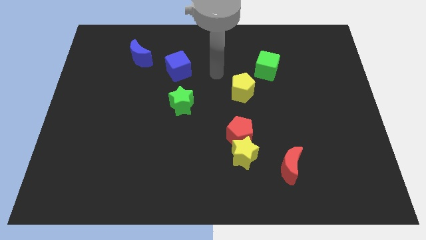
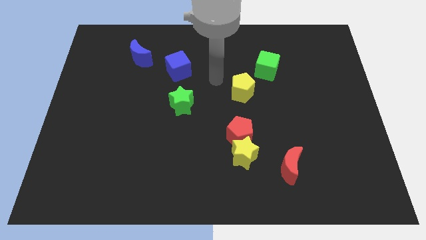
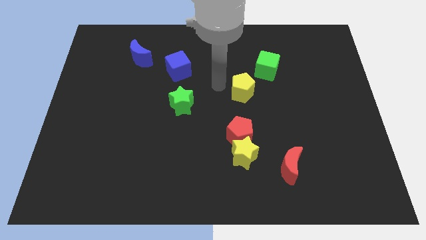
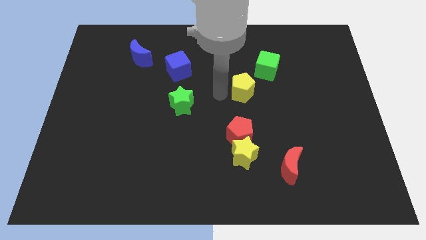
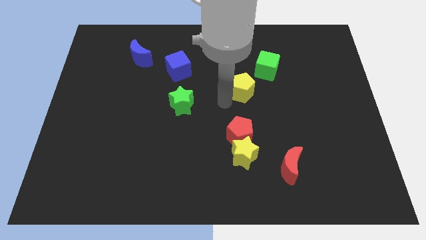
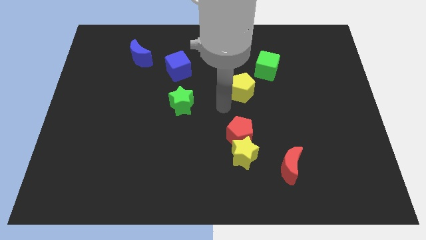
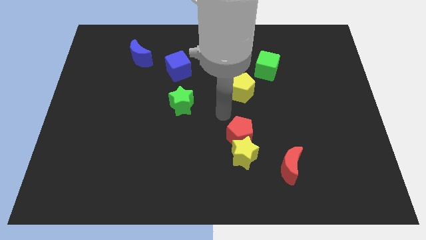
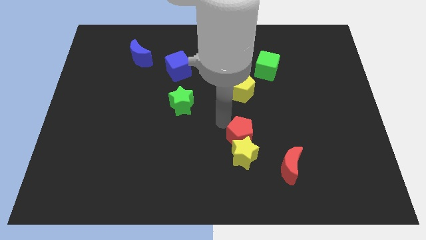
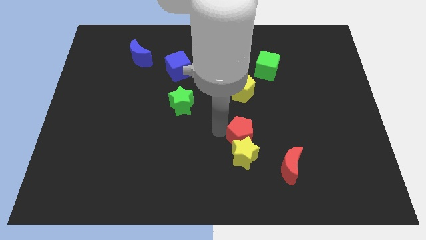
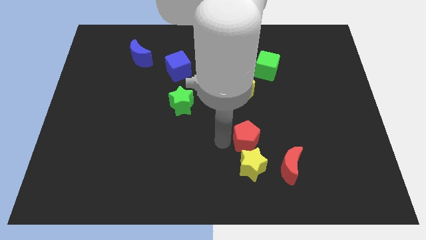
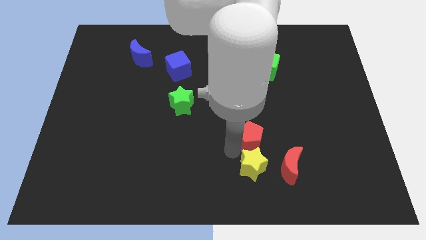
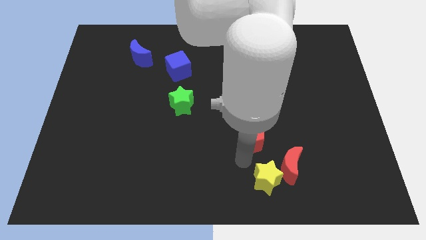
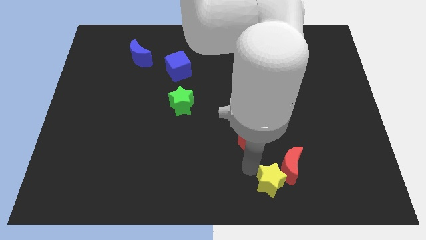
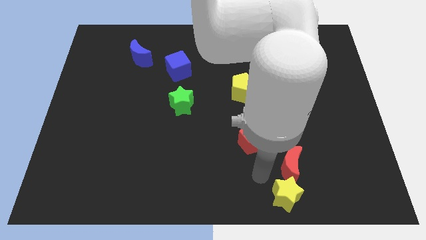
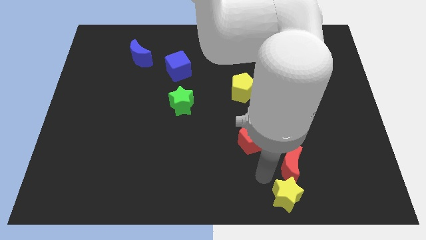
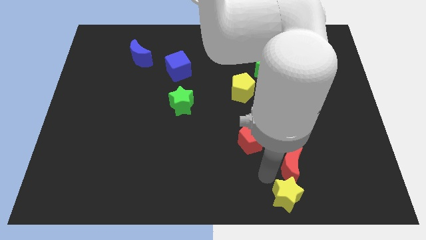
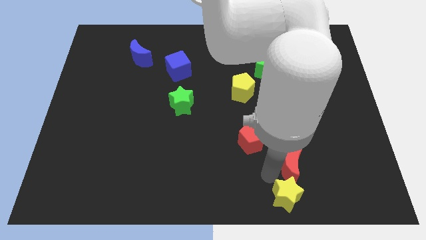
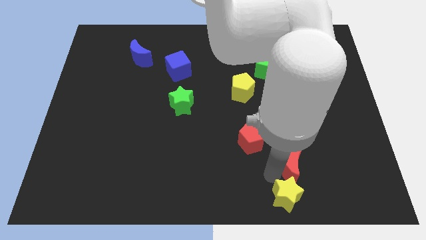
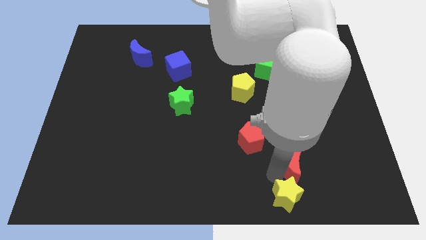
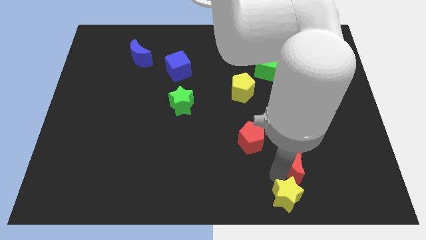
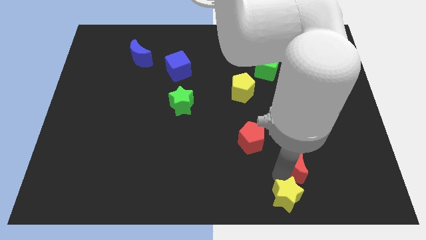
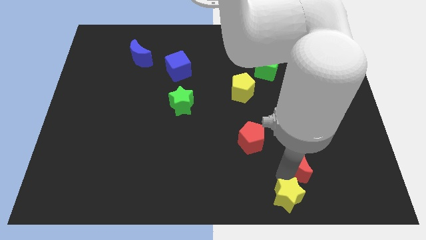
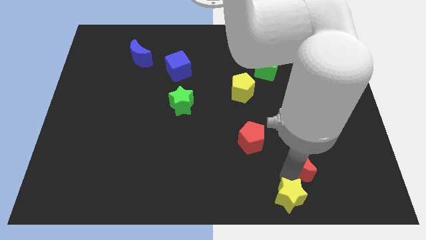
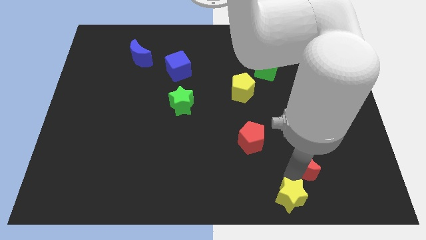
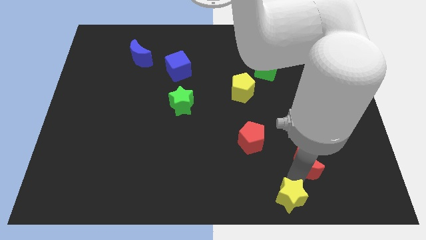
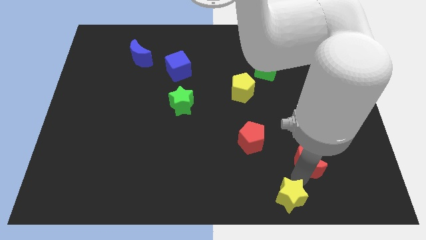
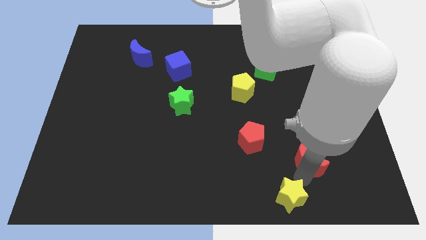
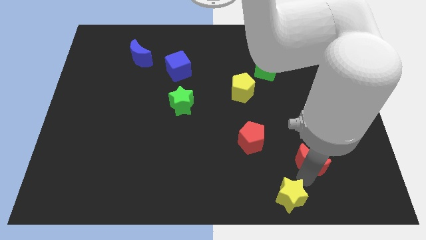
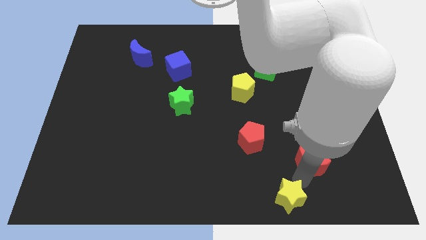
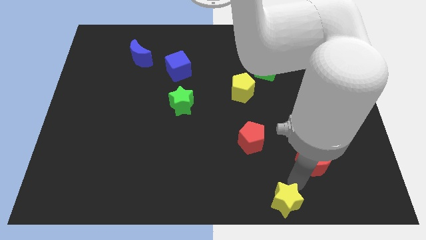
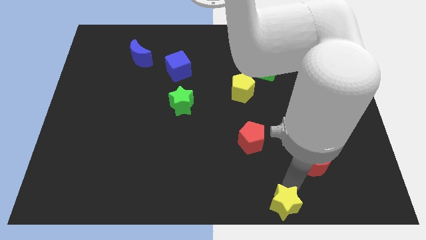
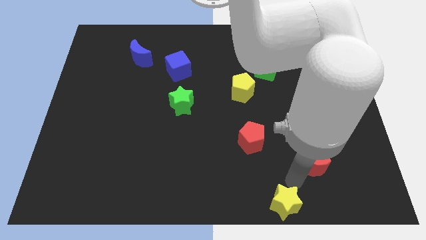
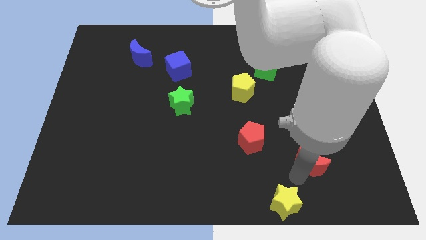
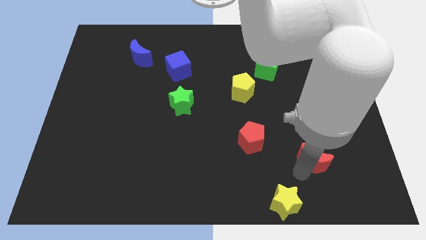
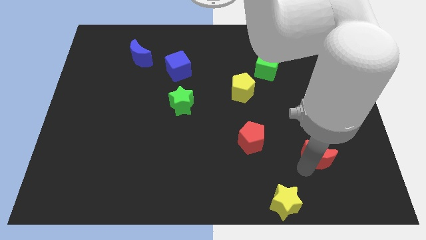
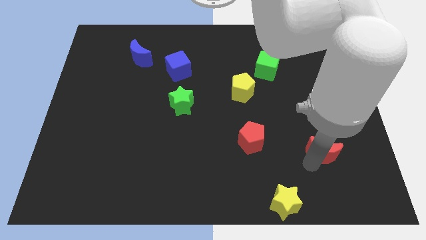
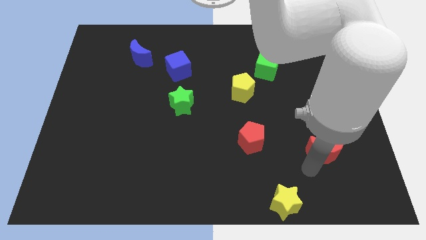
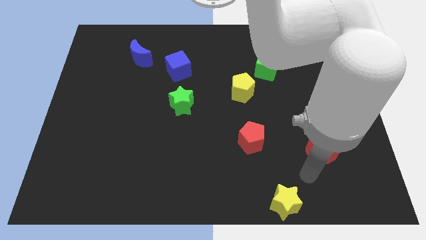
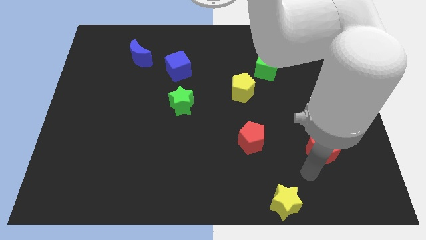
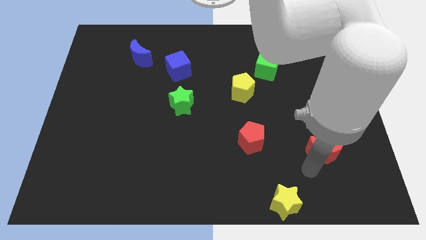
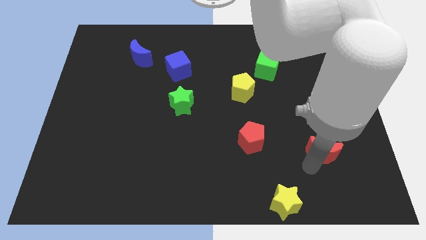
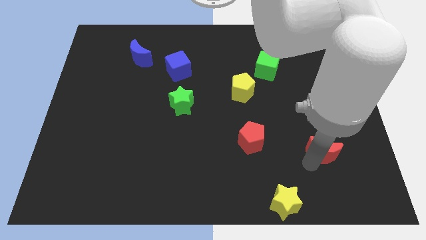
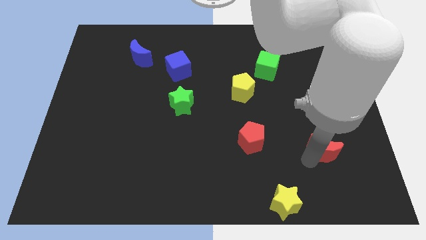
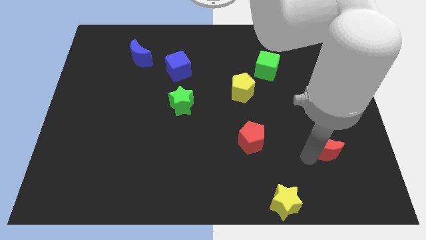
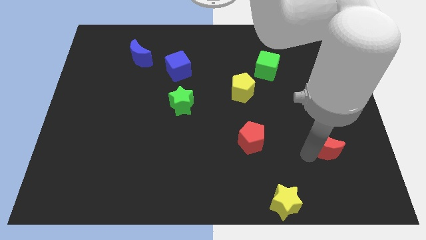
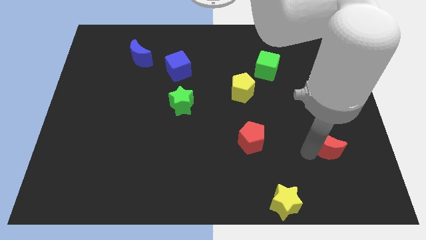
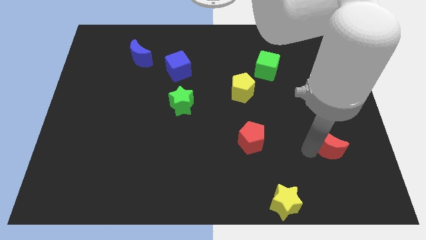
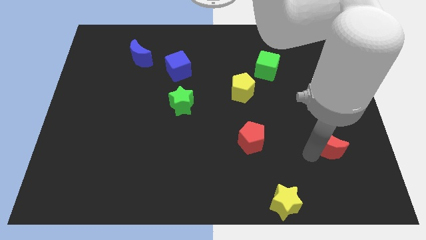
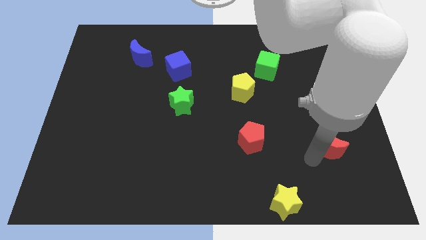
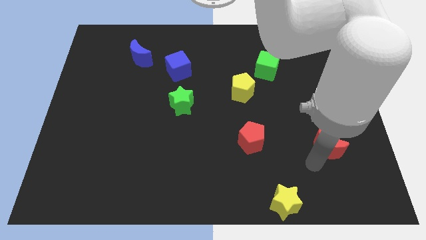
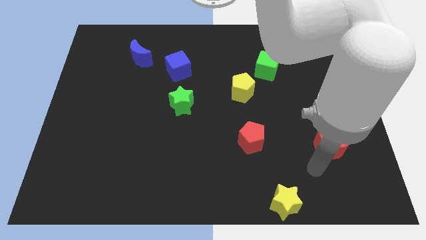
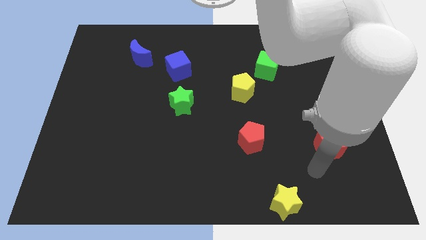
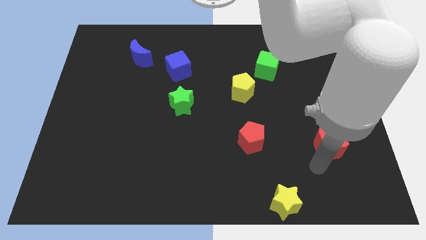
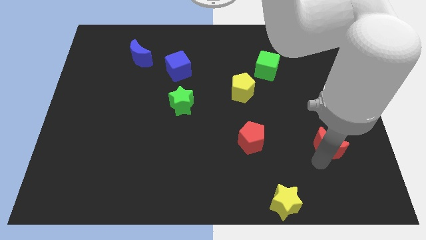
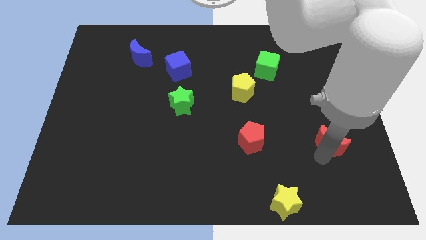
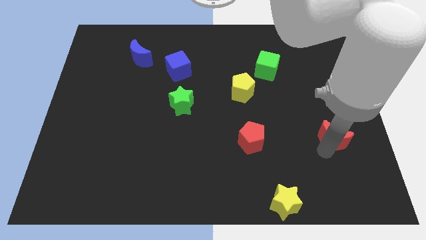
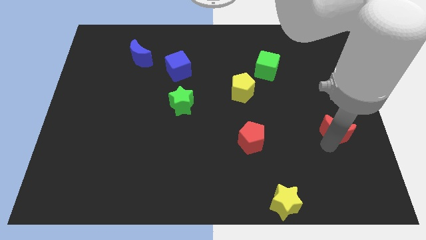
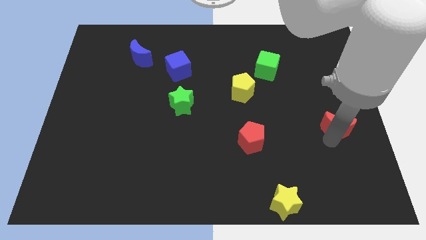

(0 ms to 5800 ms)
put the red moon to the center right

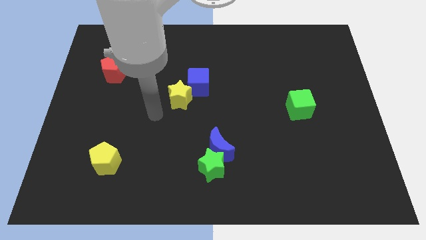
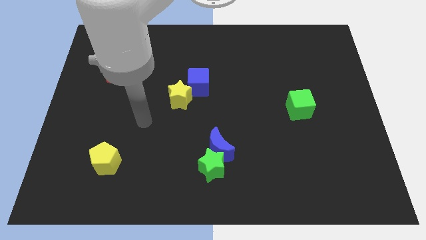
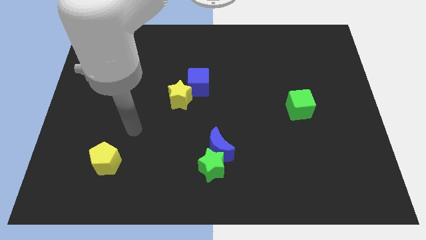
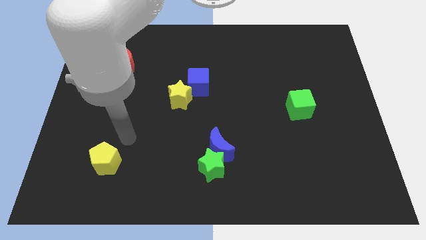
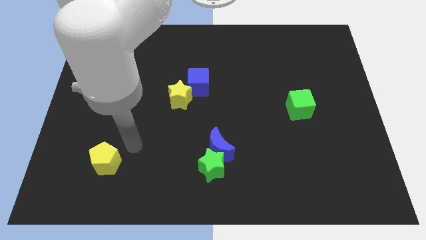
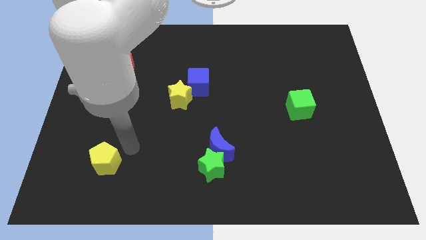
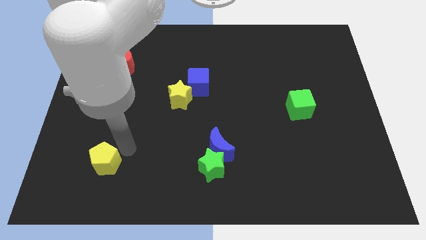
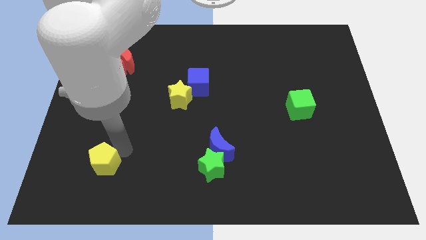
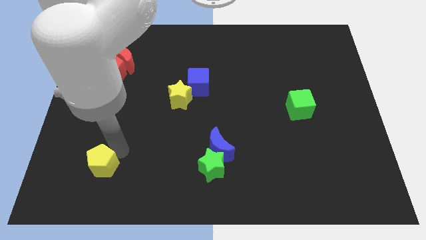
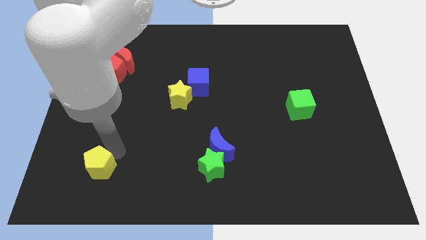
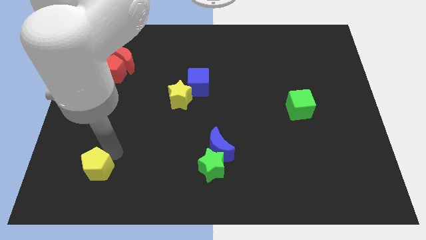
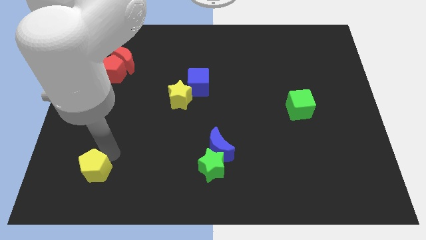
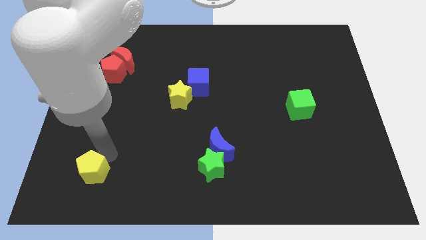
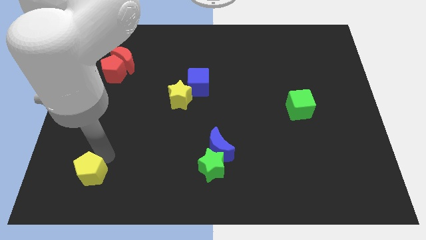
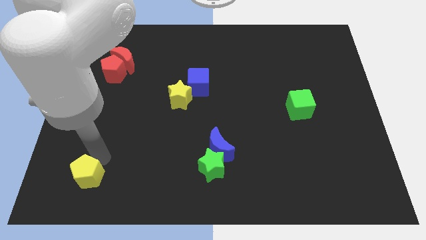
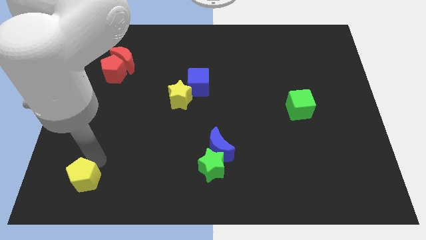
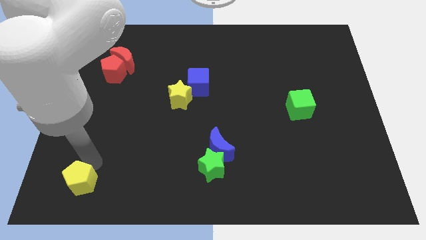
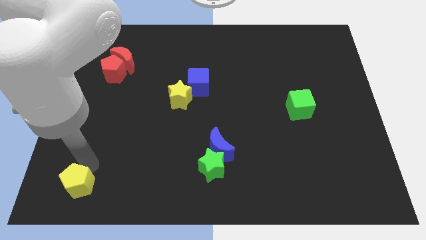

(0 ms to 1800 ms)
put the yellow pentagon to the lower left corner

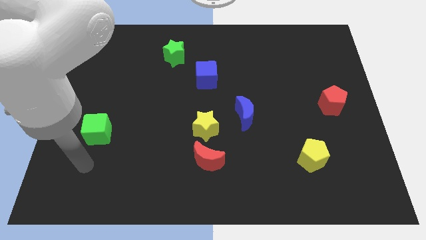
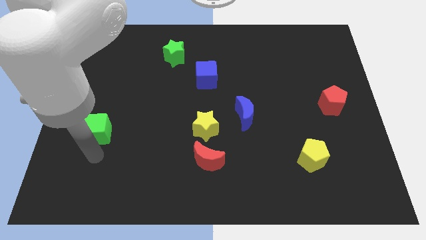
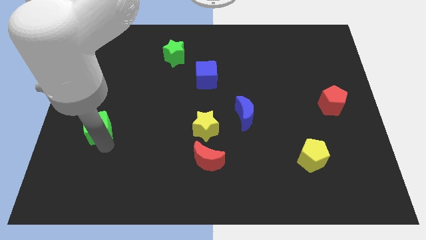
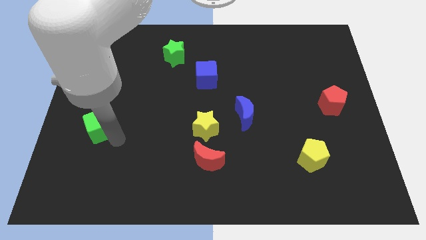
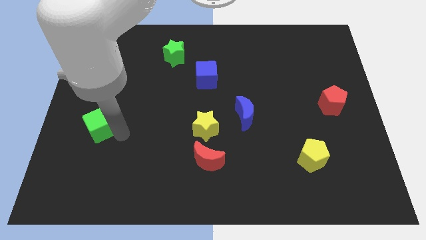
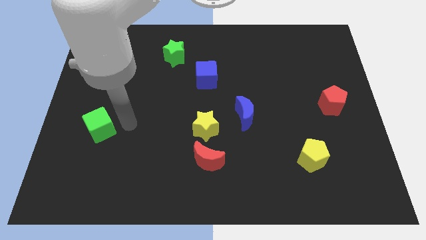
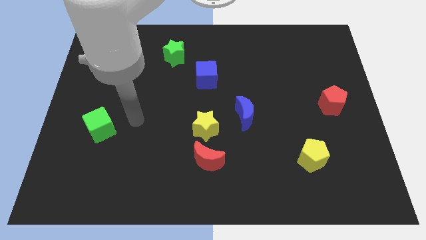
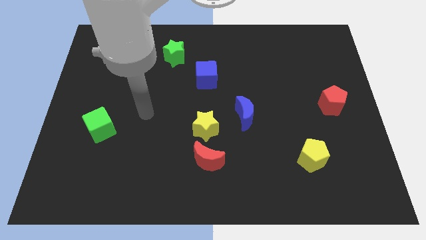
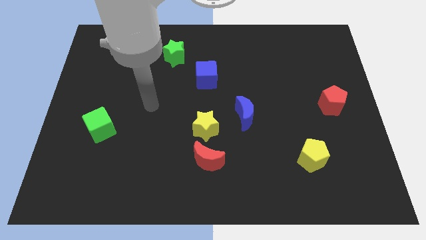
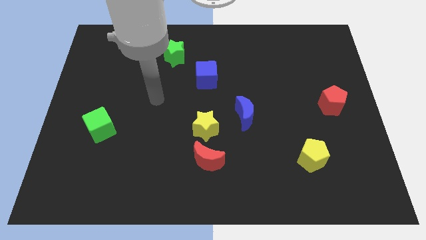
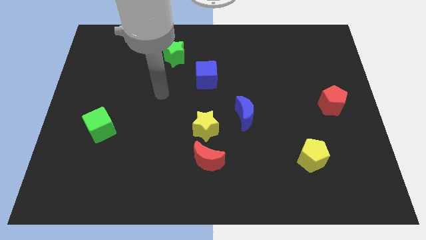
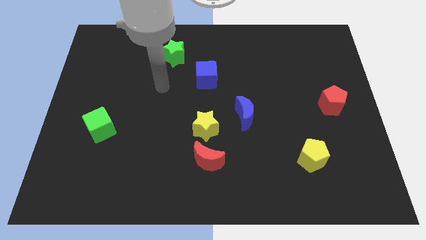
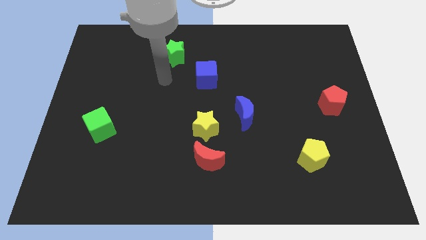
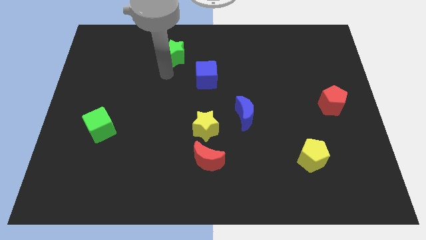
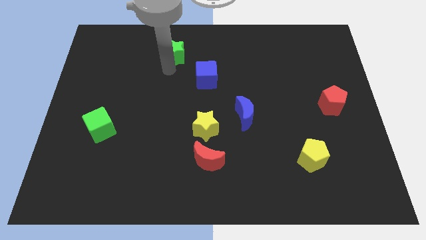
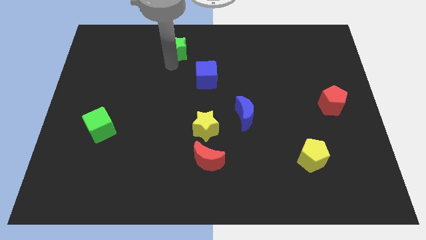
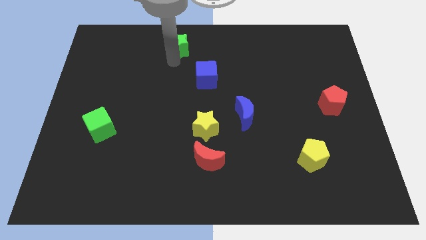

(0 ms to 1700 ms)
put the green star to the towards your base
